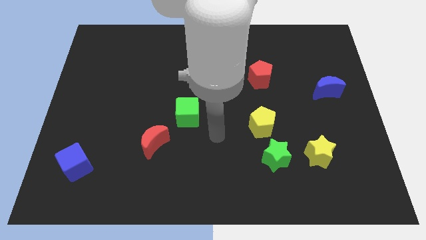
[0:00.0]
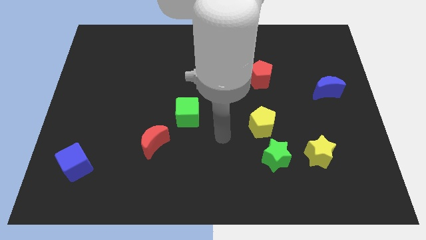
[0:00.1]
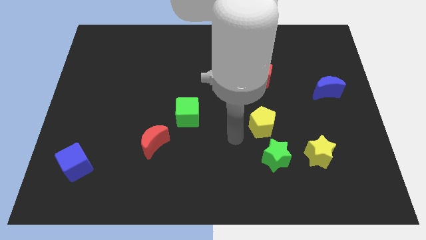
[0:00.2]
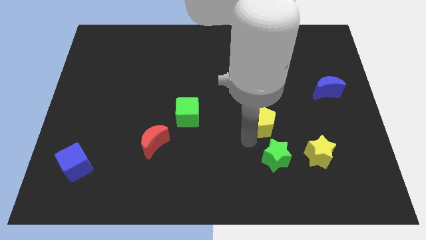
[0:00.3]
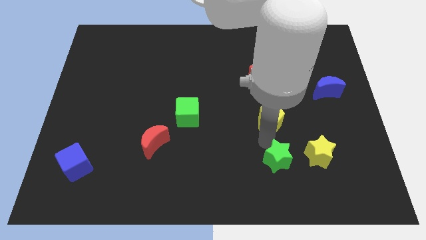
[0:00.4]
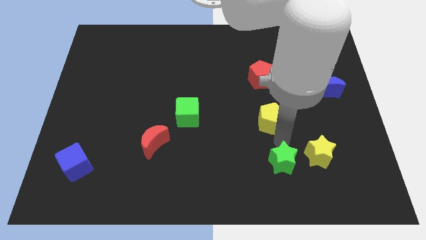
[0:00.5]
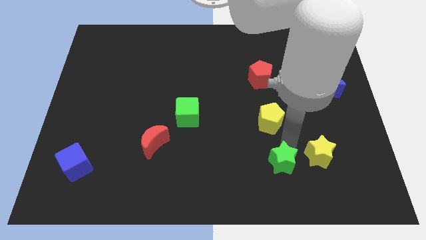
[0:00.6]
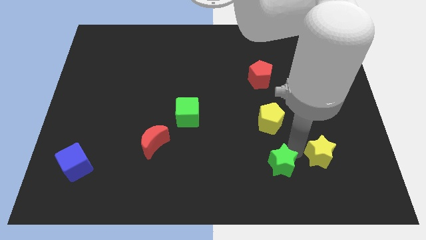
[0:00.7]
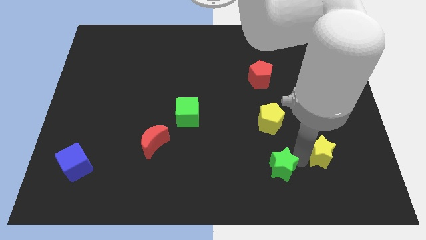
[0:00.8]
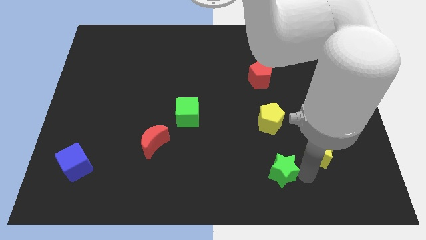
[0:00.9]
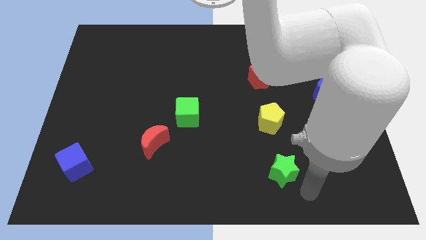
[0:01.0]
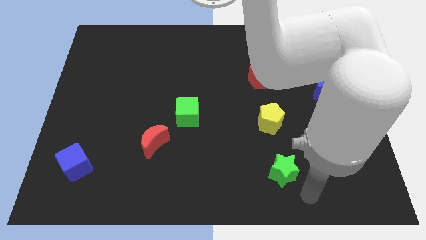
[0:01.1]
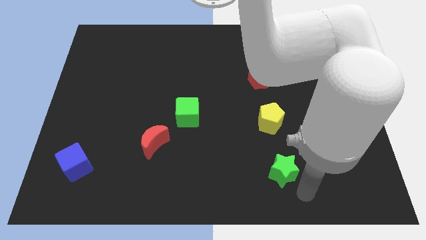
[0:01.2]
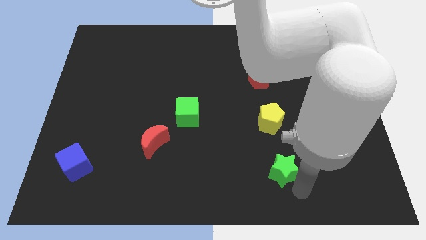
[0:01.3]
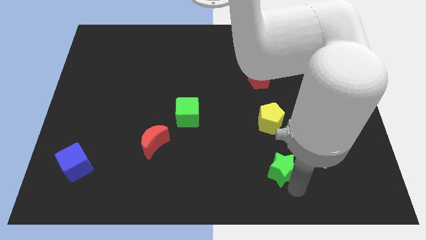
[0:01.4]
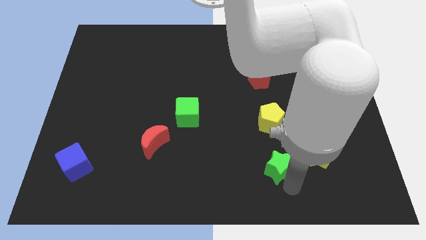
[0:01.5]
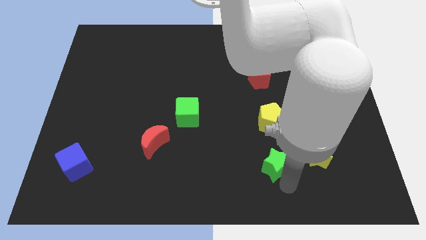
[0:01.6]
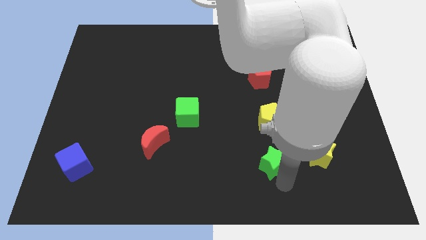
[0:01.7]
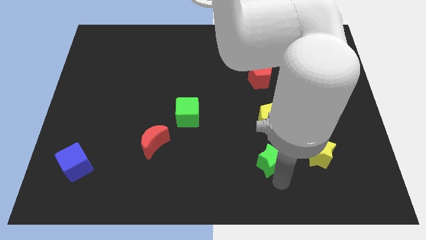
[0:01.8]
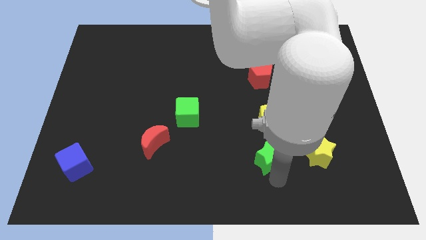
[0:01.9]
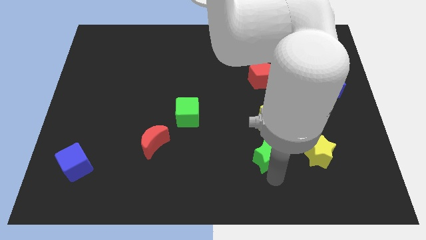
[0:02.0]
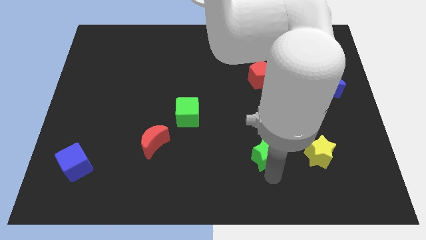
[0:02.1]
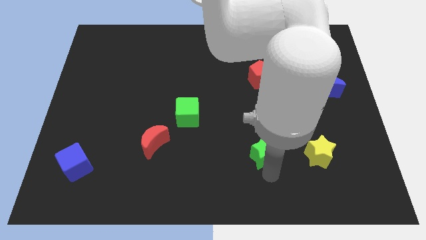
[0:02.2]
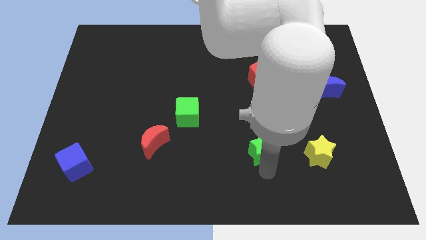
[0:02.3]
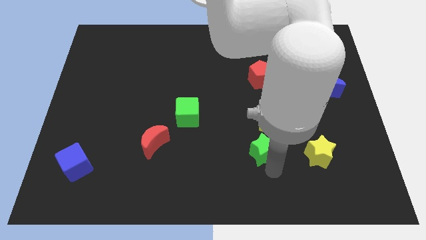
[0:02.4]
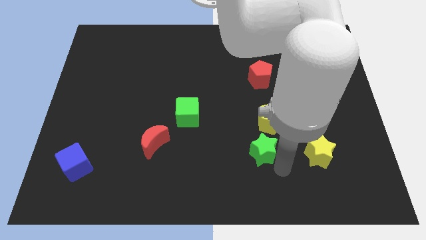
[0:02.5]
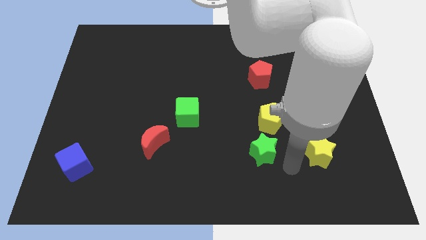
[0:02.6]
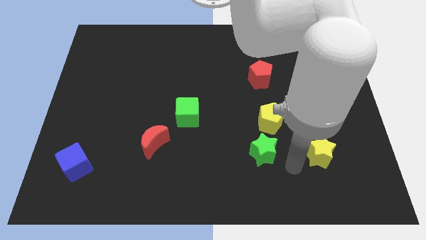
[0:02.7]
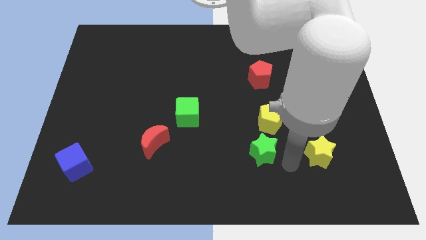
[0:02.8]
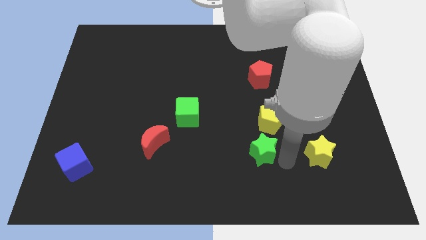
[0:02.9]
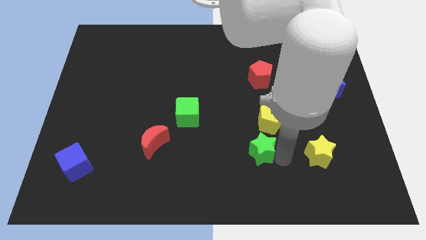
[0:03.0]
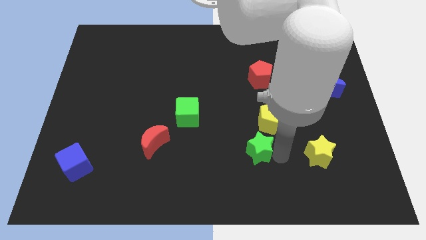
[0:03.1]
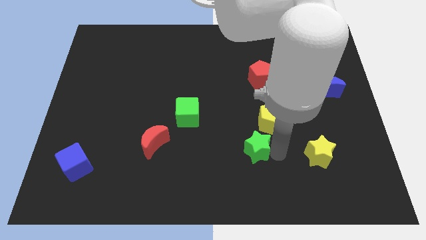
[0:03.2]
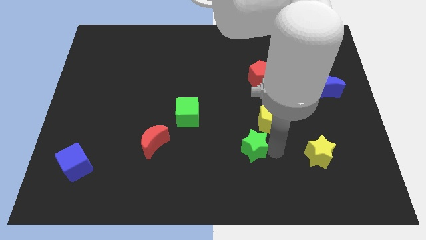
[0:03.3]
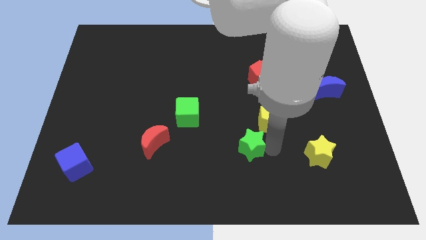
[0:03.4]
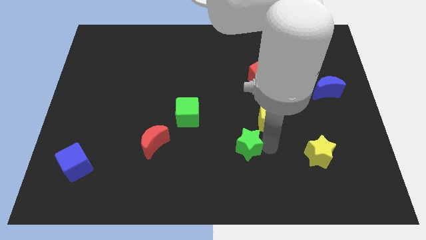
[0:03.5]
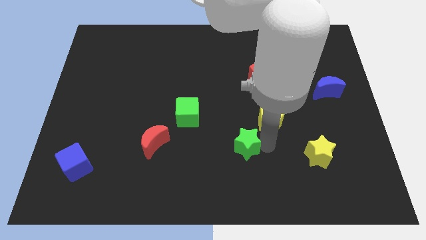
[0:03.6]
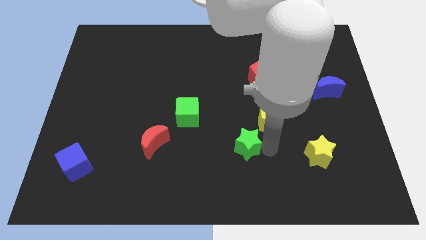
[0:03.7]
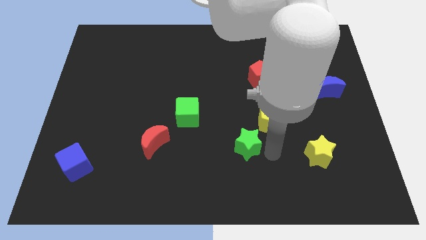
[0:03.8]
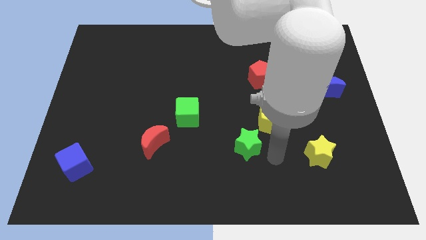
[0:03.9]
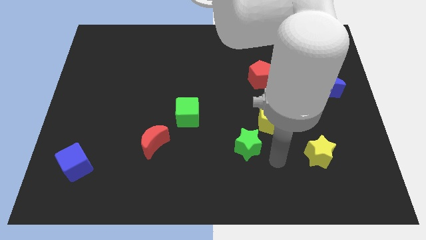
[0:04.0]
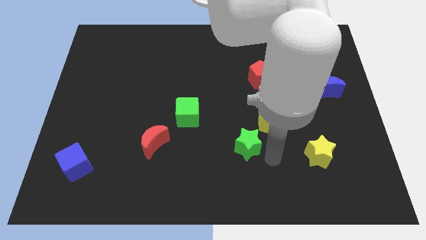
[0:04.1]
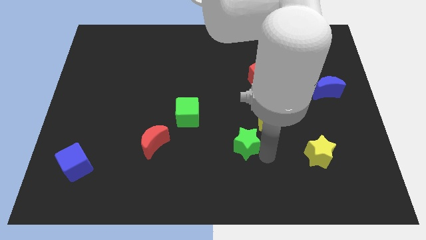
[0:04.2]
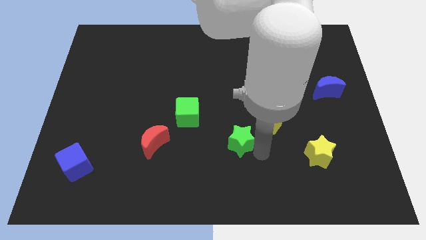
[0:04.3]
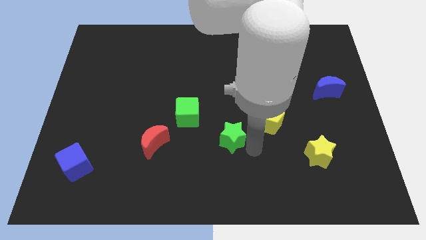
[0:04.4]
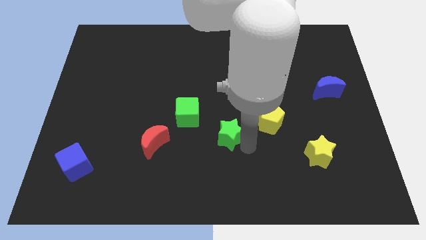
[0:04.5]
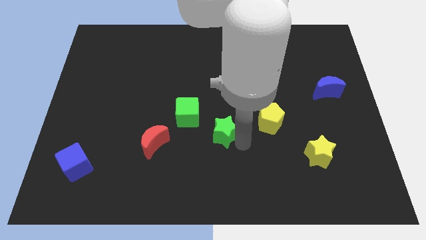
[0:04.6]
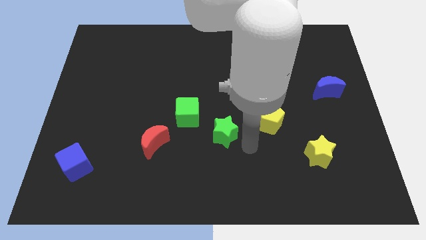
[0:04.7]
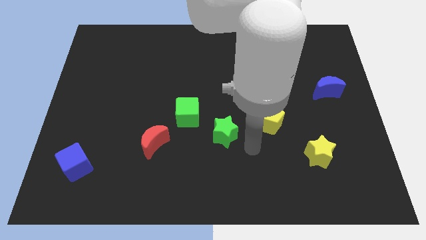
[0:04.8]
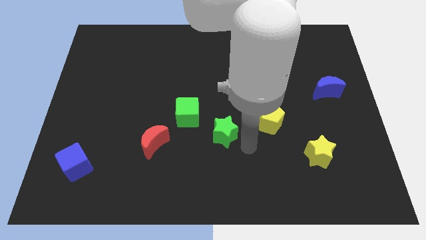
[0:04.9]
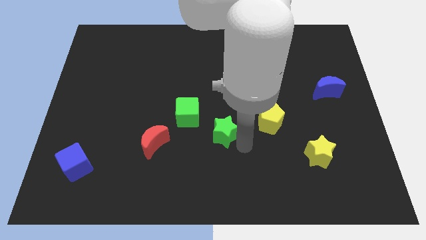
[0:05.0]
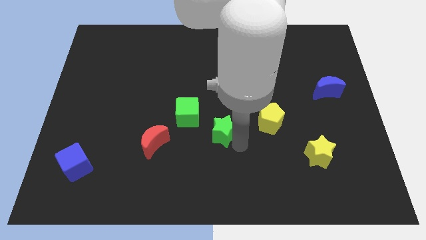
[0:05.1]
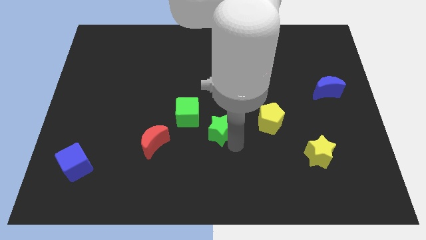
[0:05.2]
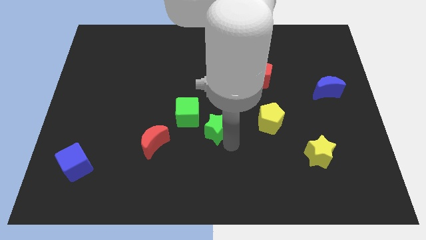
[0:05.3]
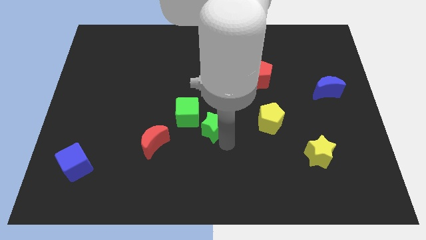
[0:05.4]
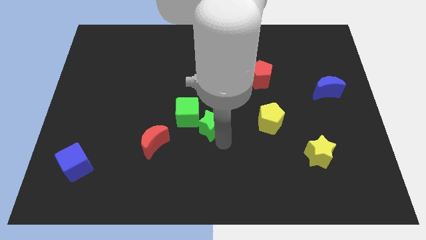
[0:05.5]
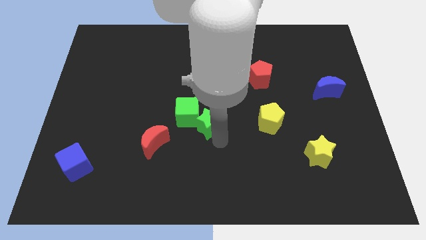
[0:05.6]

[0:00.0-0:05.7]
push the green star to the green cube

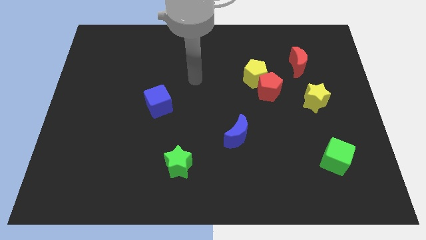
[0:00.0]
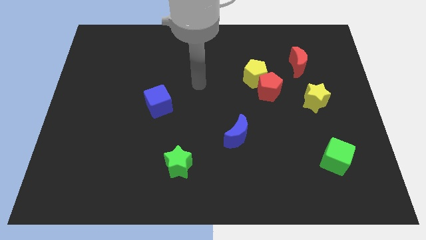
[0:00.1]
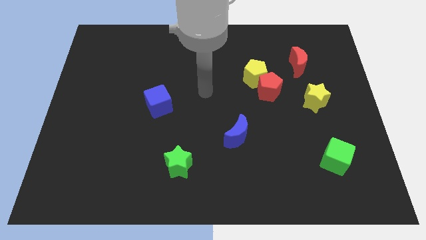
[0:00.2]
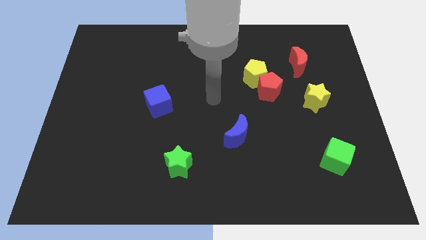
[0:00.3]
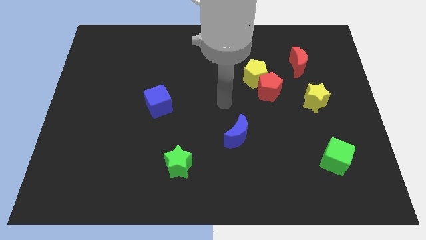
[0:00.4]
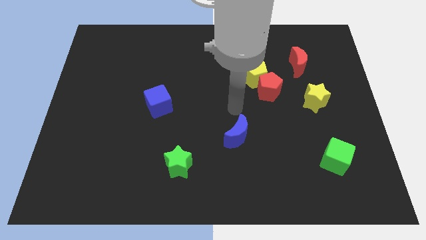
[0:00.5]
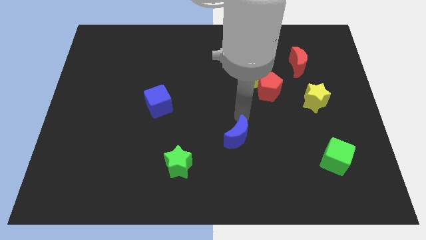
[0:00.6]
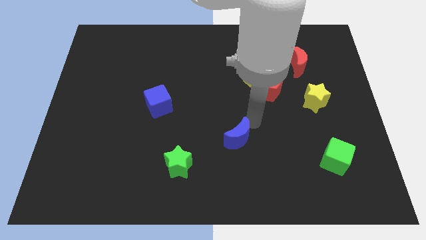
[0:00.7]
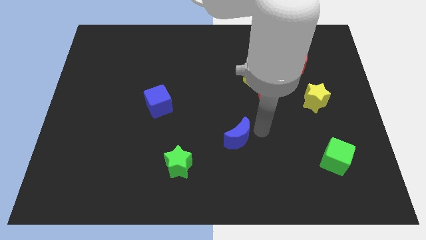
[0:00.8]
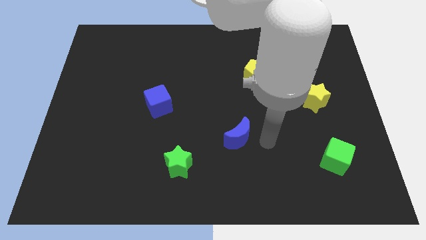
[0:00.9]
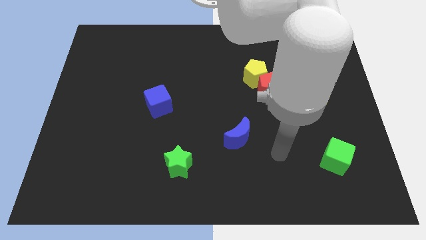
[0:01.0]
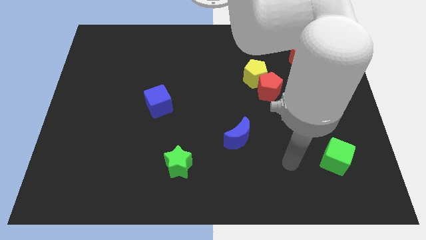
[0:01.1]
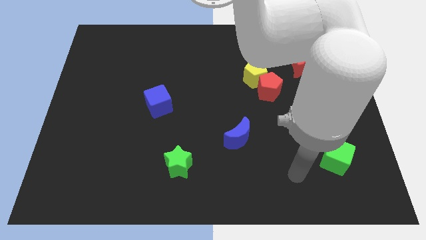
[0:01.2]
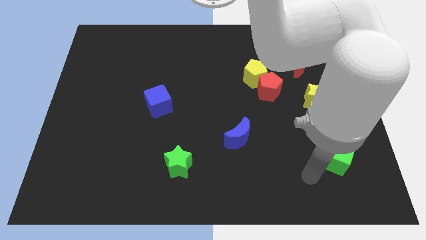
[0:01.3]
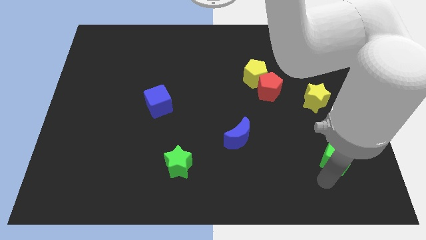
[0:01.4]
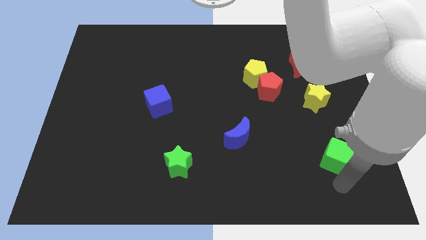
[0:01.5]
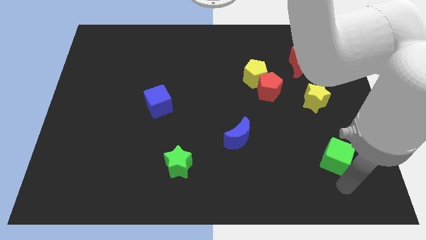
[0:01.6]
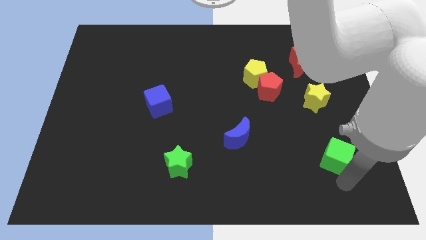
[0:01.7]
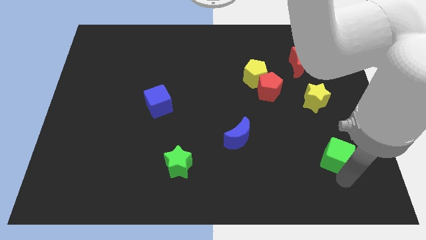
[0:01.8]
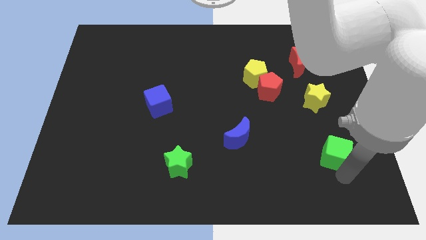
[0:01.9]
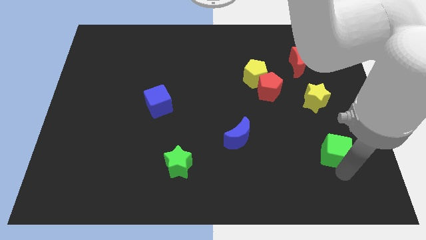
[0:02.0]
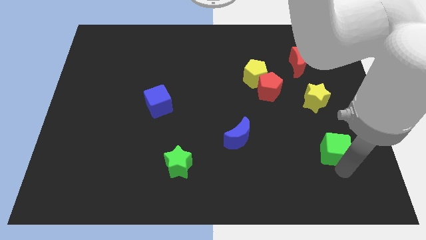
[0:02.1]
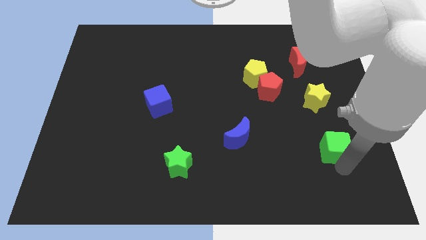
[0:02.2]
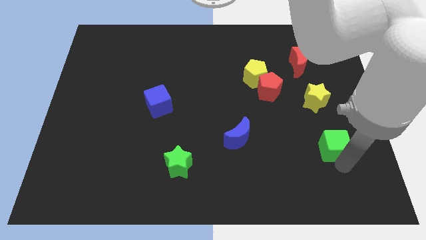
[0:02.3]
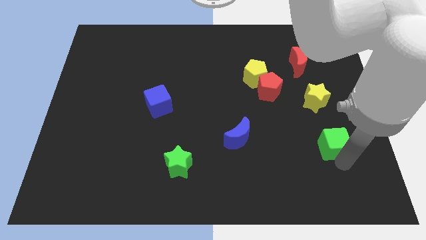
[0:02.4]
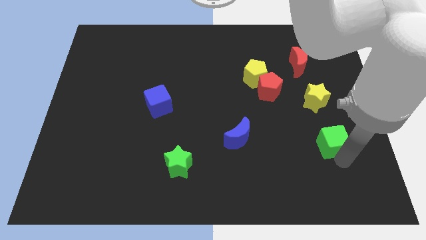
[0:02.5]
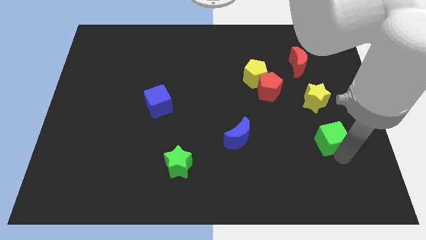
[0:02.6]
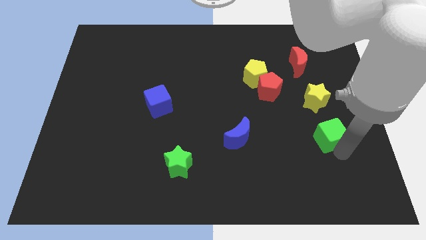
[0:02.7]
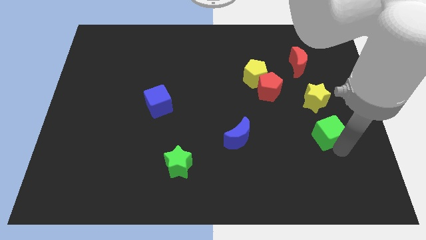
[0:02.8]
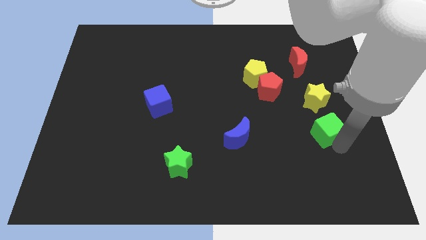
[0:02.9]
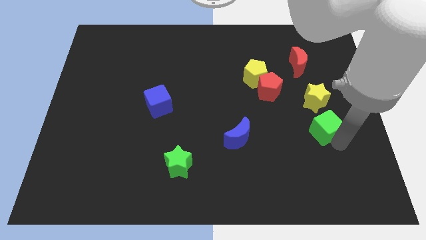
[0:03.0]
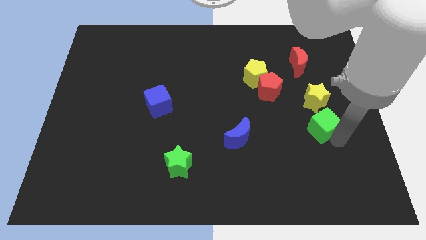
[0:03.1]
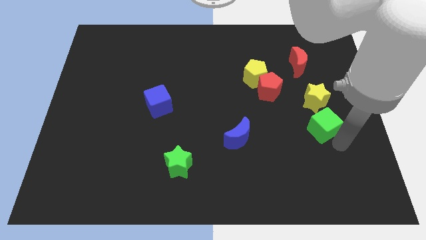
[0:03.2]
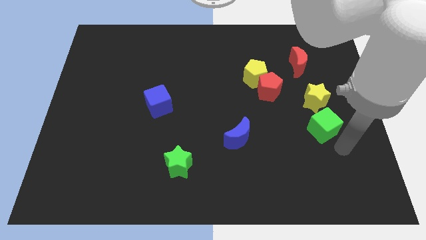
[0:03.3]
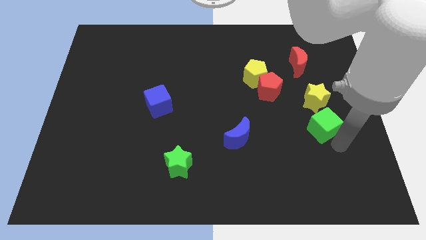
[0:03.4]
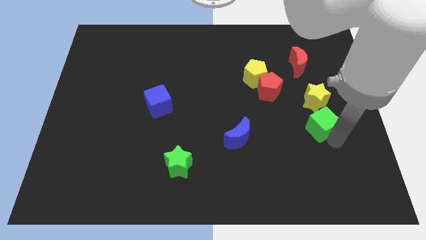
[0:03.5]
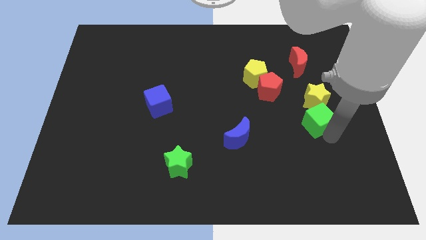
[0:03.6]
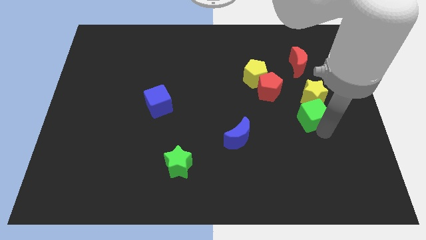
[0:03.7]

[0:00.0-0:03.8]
slide the green cube towards the yellow star
